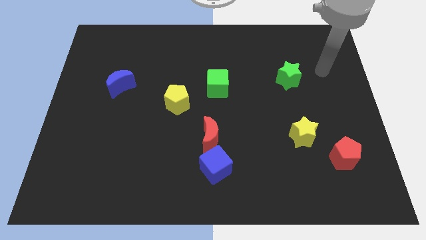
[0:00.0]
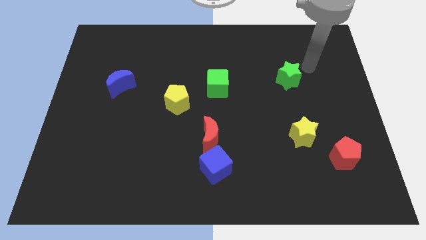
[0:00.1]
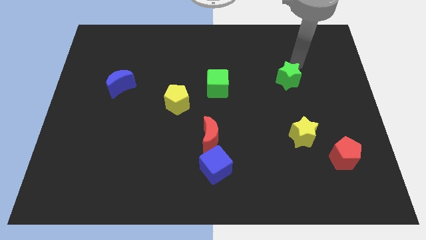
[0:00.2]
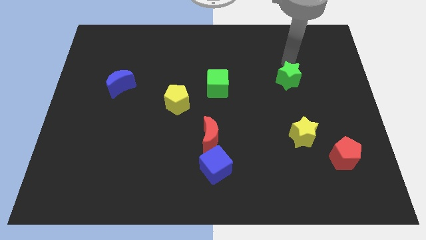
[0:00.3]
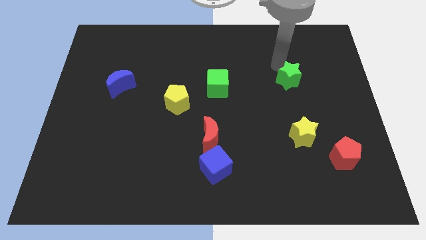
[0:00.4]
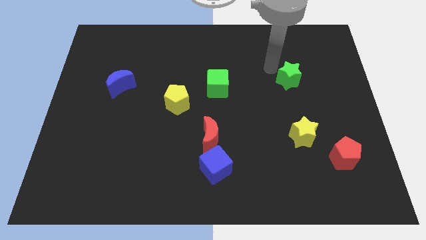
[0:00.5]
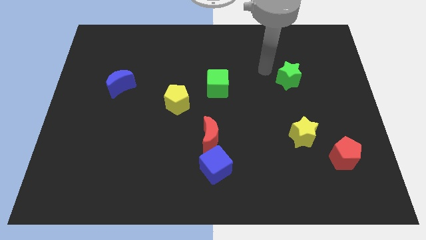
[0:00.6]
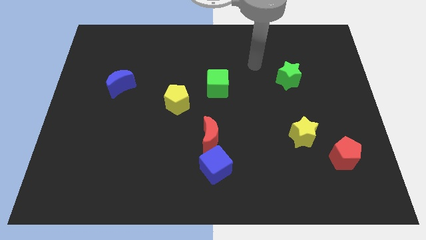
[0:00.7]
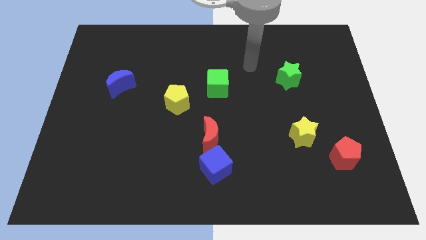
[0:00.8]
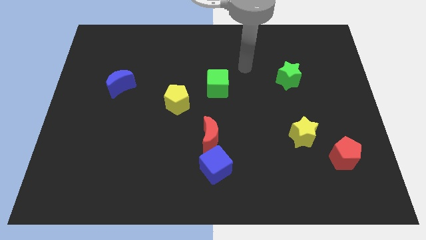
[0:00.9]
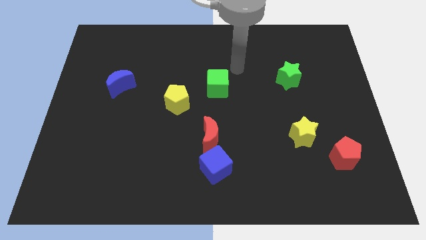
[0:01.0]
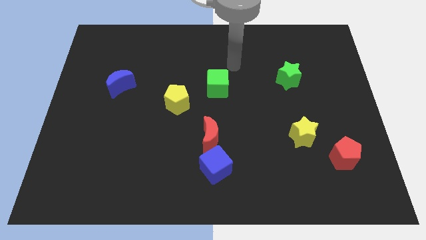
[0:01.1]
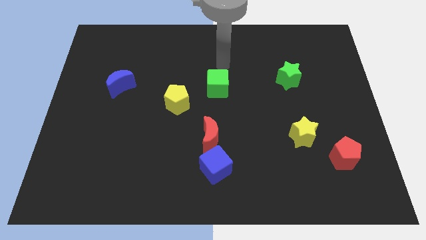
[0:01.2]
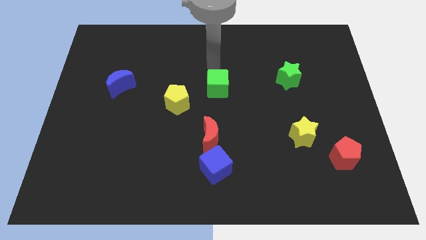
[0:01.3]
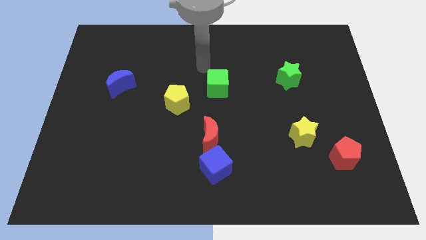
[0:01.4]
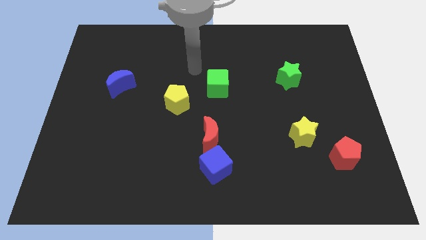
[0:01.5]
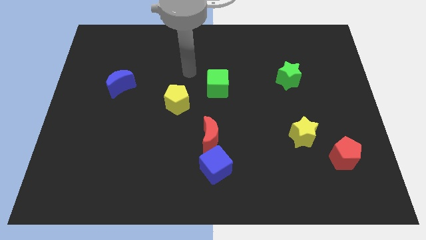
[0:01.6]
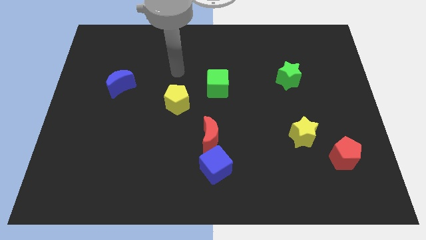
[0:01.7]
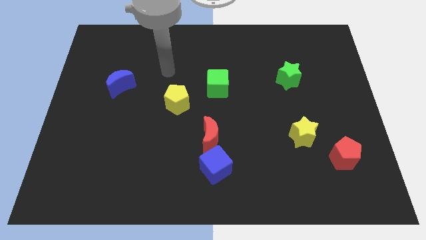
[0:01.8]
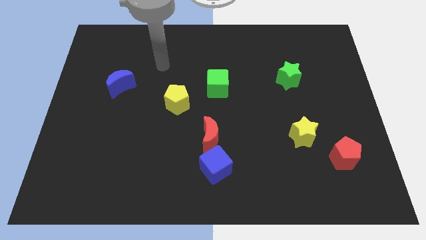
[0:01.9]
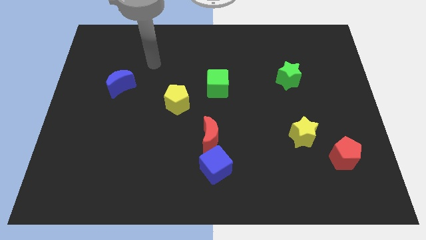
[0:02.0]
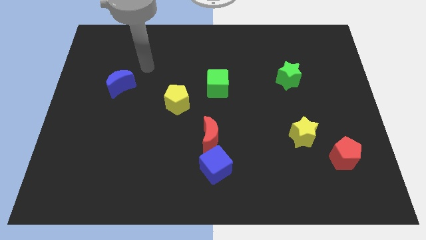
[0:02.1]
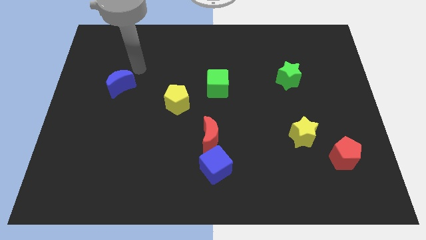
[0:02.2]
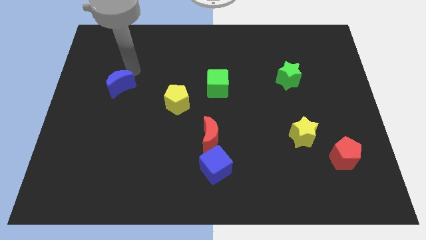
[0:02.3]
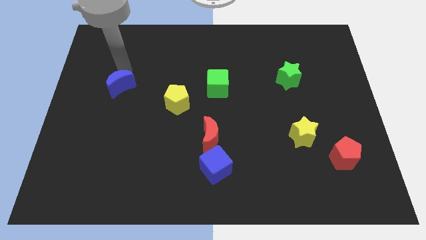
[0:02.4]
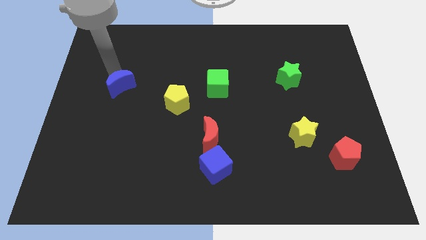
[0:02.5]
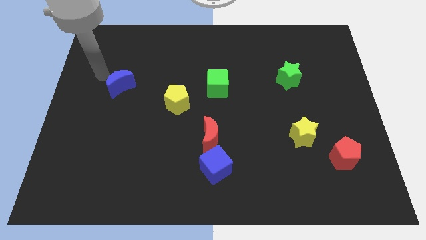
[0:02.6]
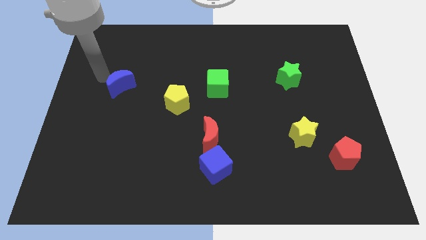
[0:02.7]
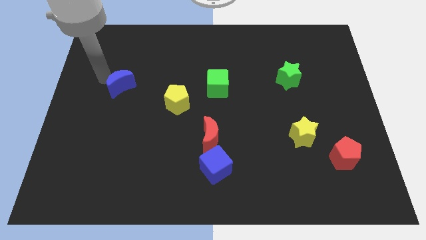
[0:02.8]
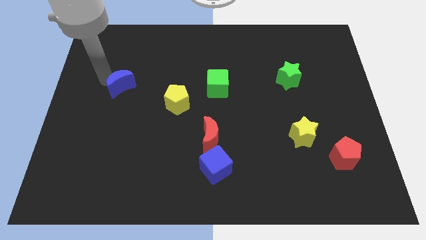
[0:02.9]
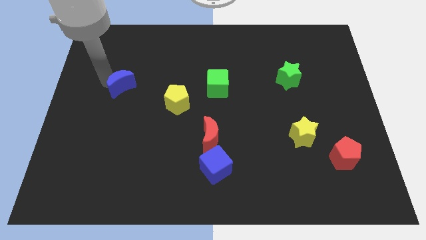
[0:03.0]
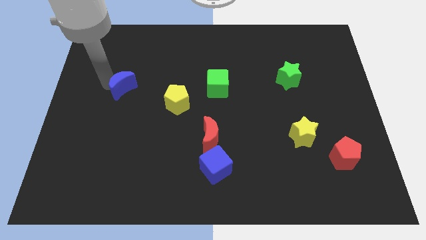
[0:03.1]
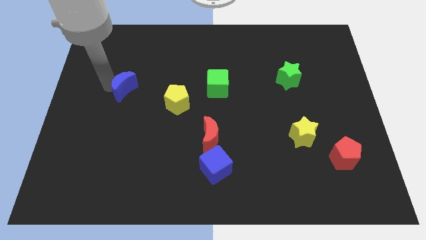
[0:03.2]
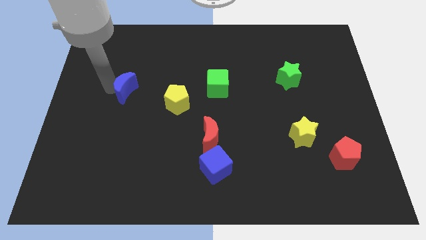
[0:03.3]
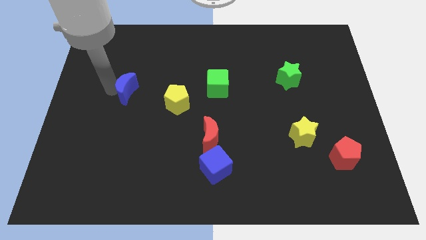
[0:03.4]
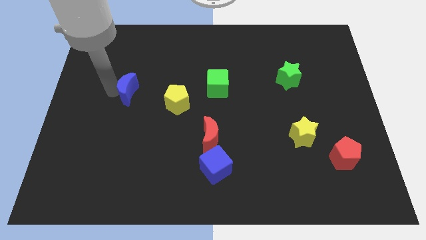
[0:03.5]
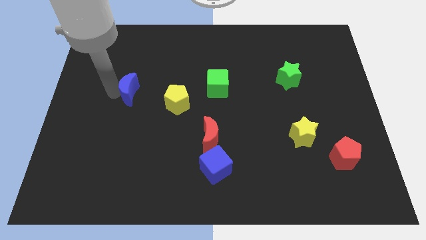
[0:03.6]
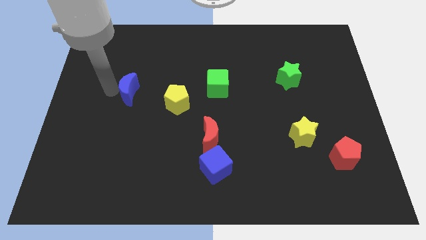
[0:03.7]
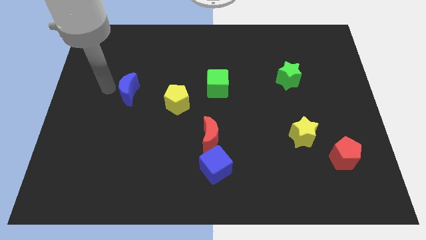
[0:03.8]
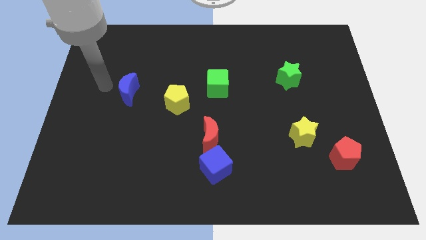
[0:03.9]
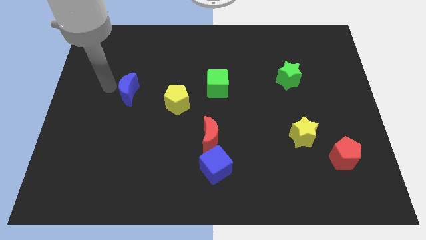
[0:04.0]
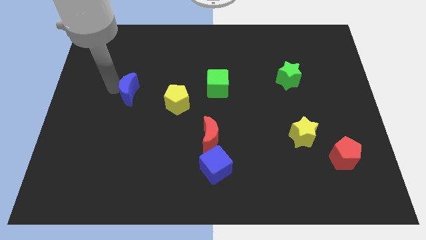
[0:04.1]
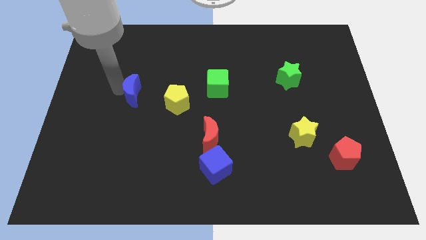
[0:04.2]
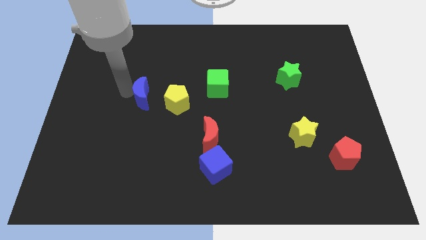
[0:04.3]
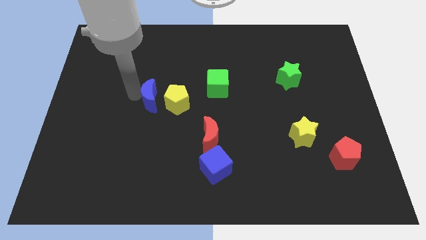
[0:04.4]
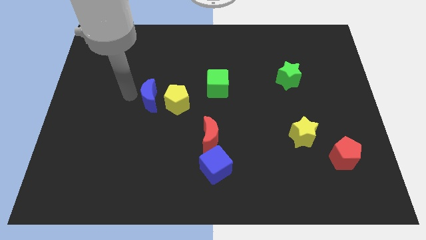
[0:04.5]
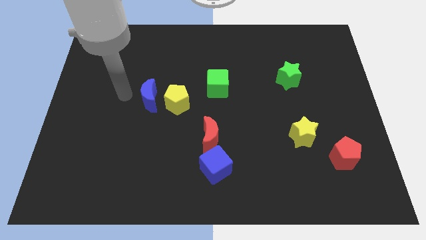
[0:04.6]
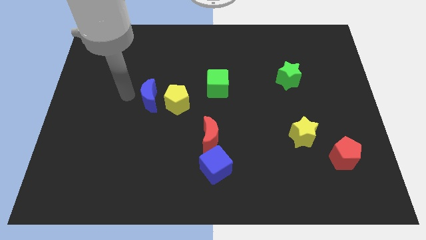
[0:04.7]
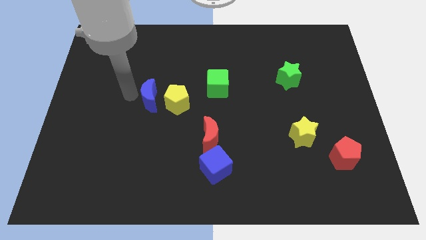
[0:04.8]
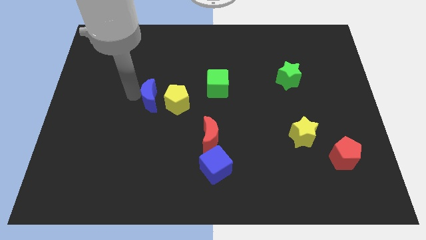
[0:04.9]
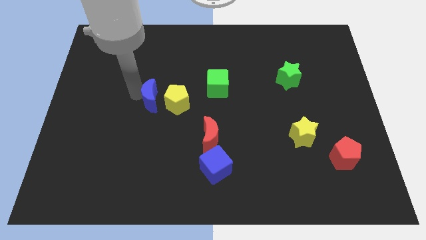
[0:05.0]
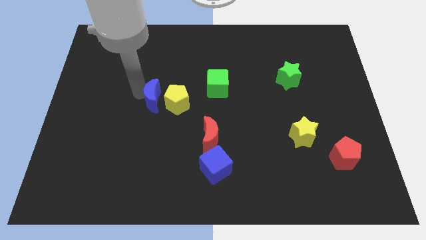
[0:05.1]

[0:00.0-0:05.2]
put the blue moon to the yellow pentagon

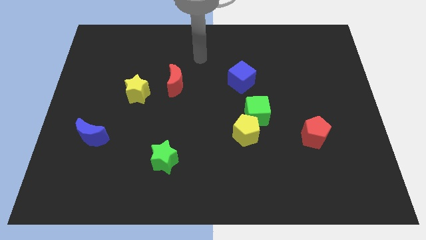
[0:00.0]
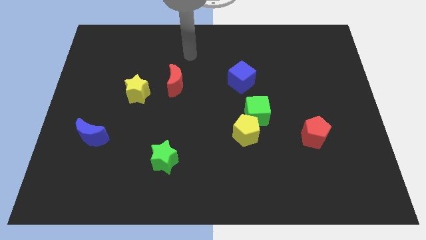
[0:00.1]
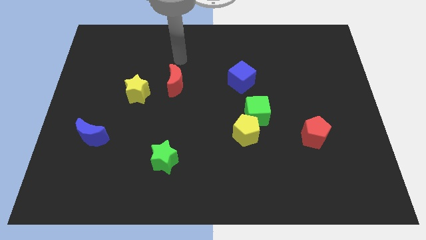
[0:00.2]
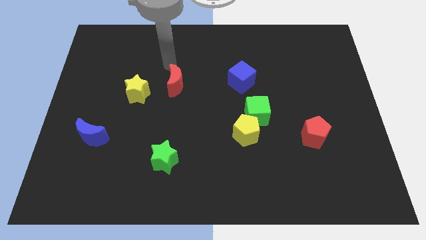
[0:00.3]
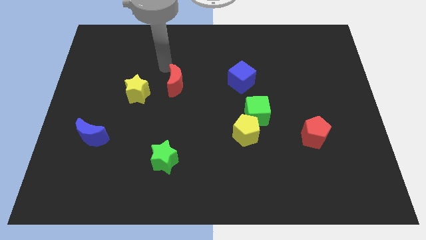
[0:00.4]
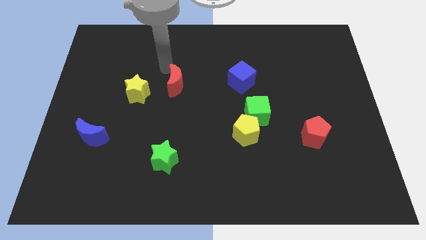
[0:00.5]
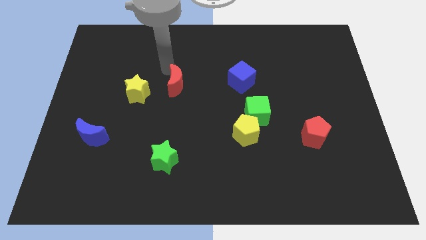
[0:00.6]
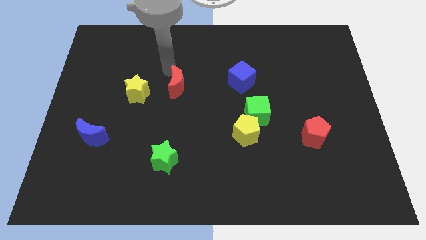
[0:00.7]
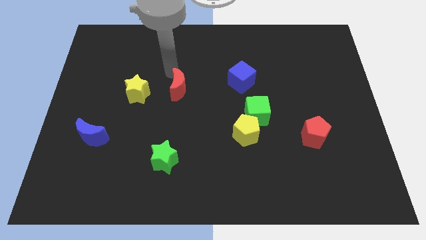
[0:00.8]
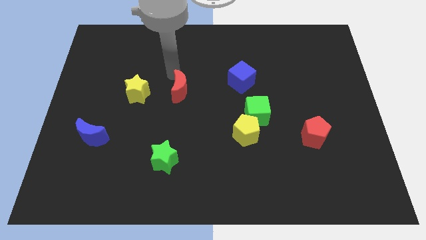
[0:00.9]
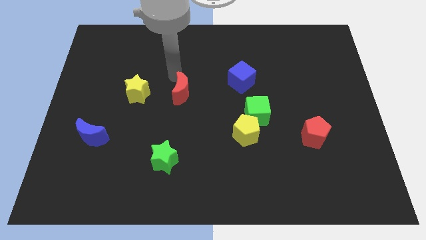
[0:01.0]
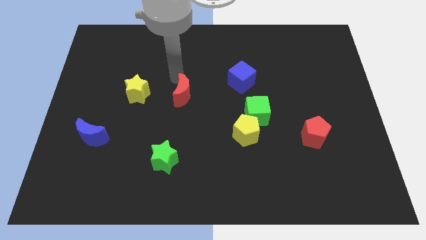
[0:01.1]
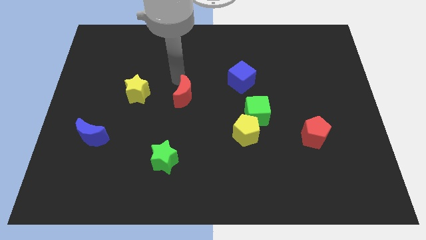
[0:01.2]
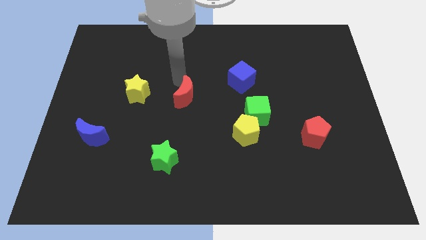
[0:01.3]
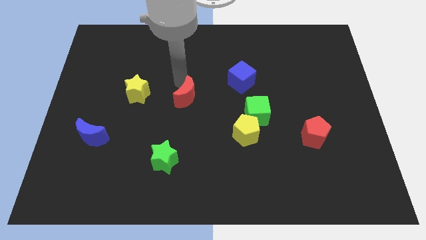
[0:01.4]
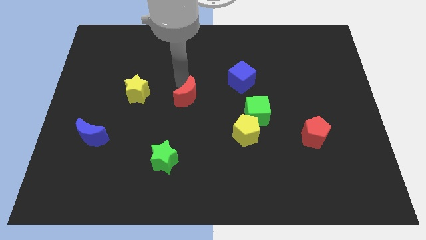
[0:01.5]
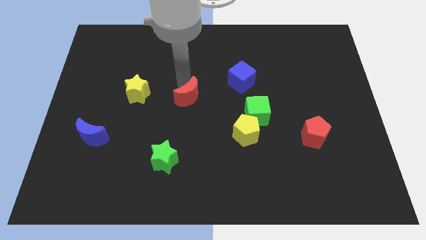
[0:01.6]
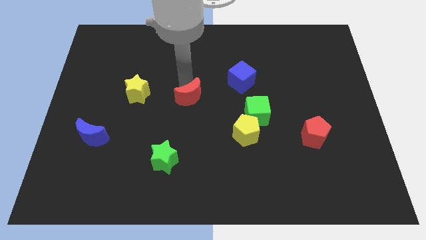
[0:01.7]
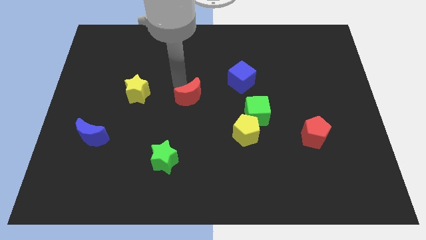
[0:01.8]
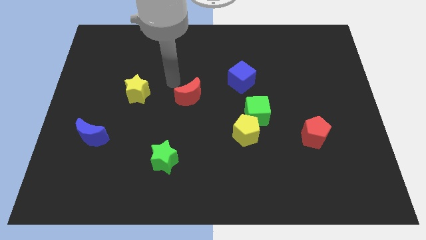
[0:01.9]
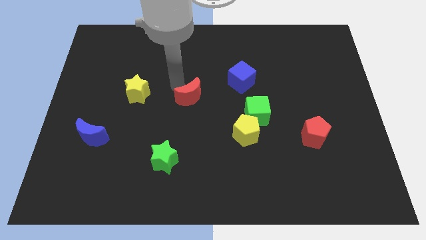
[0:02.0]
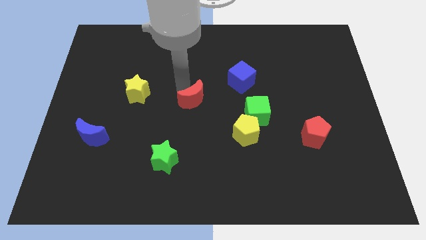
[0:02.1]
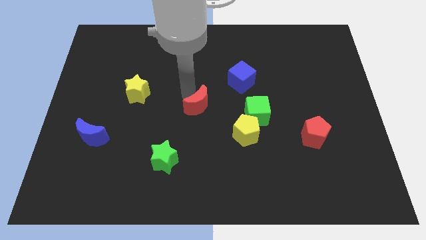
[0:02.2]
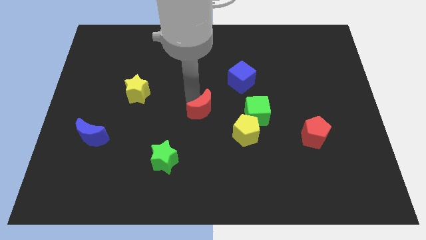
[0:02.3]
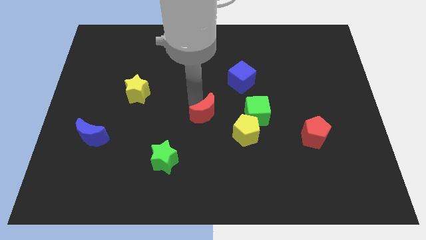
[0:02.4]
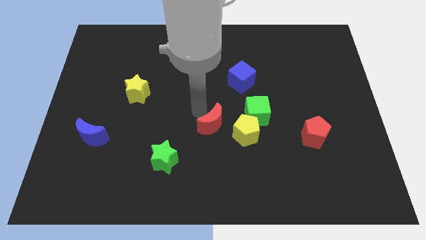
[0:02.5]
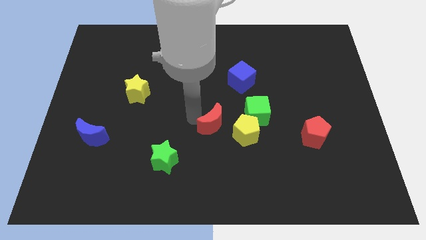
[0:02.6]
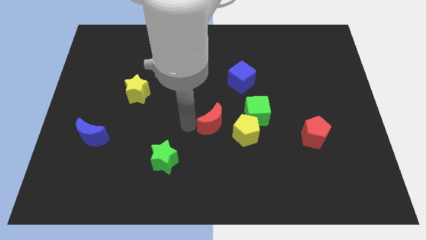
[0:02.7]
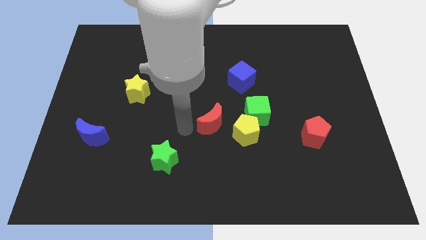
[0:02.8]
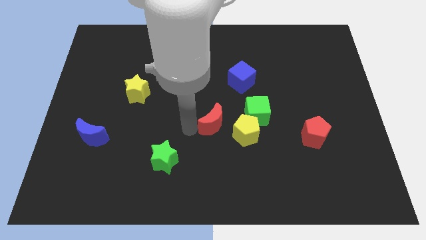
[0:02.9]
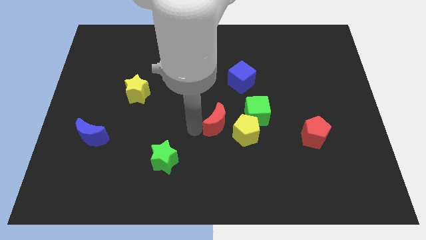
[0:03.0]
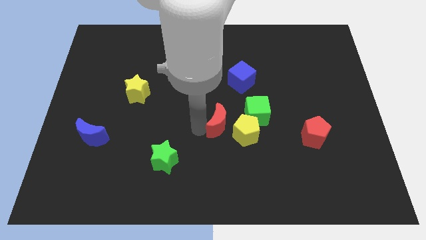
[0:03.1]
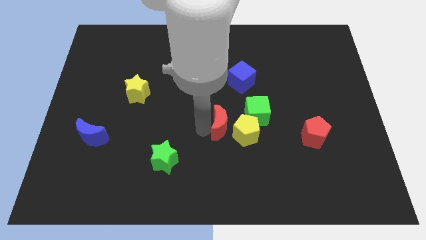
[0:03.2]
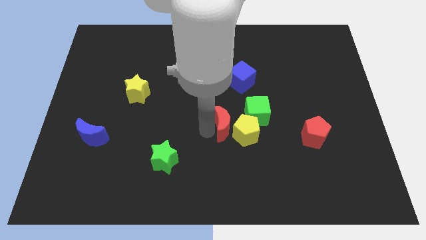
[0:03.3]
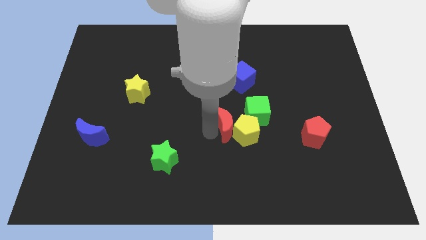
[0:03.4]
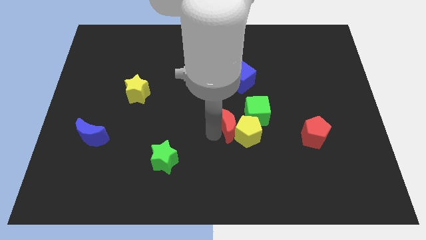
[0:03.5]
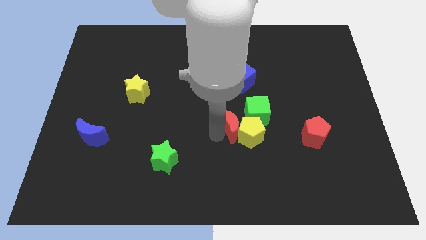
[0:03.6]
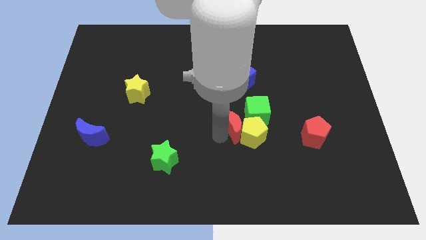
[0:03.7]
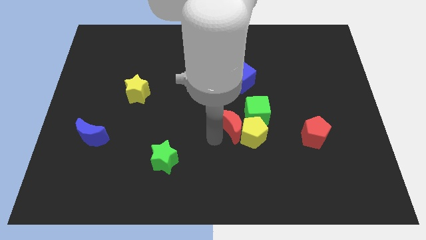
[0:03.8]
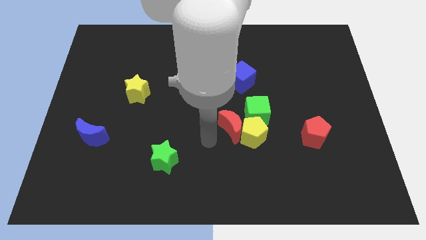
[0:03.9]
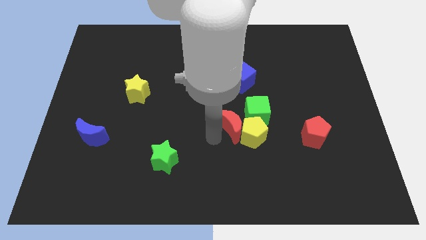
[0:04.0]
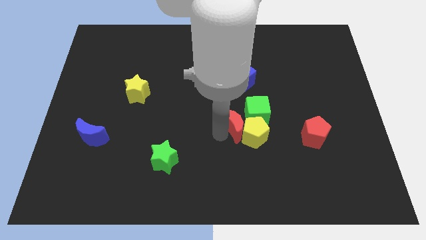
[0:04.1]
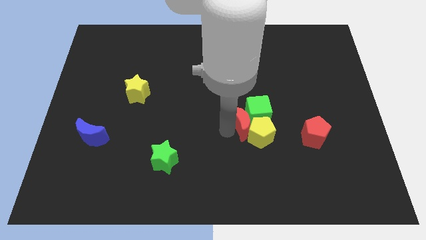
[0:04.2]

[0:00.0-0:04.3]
push the red moon close to the green cube
